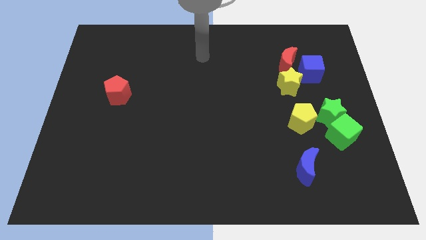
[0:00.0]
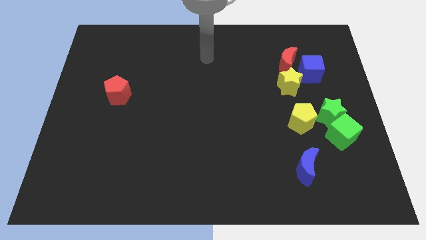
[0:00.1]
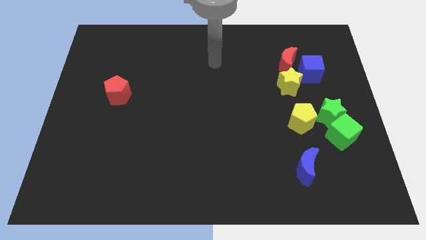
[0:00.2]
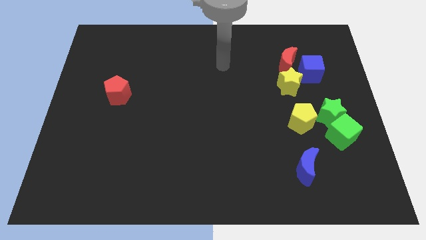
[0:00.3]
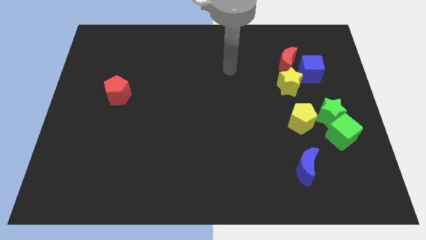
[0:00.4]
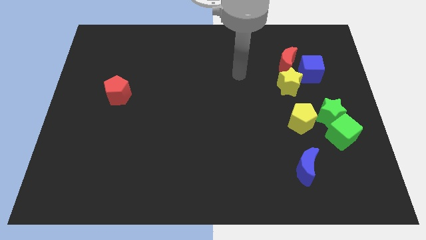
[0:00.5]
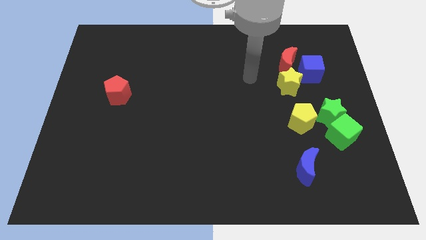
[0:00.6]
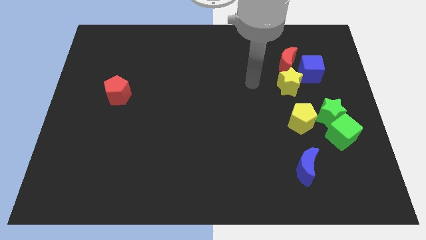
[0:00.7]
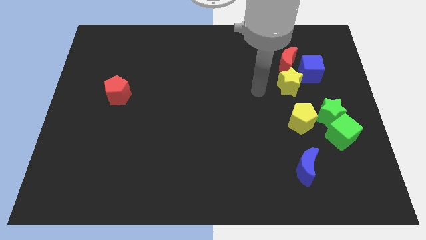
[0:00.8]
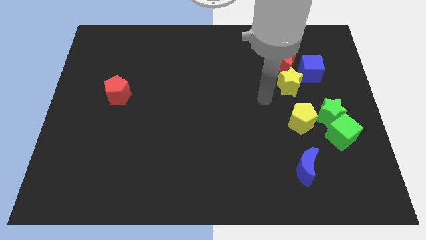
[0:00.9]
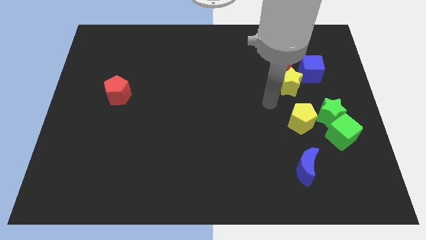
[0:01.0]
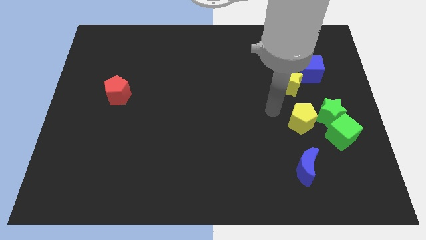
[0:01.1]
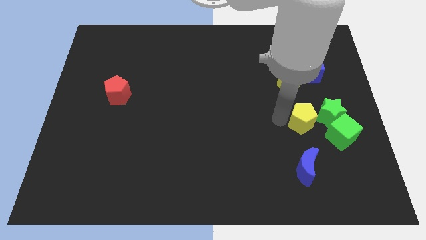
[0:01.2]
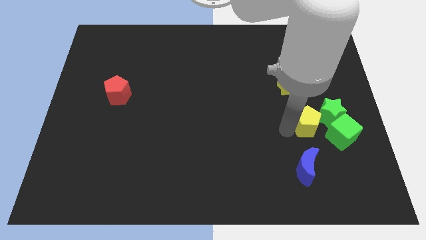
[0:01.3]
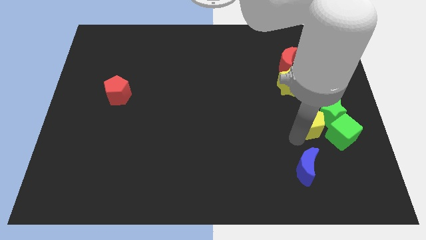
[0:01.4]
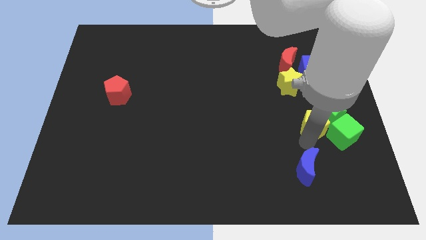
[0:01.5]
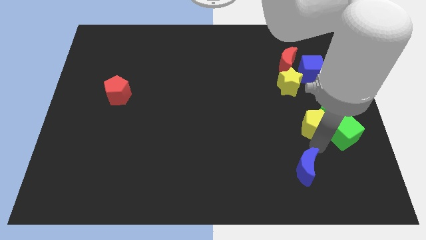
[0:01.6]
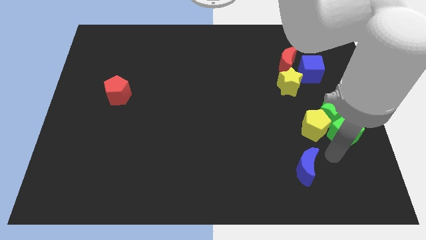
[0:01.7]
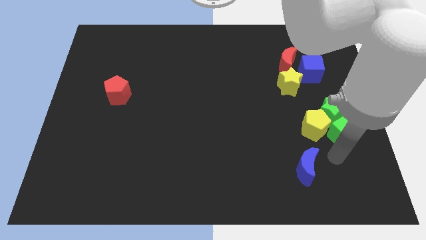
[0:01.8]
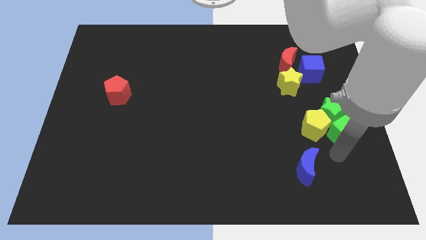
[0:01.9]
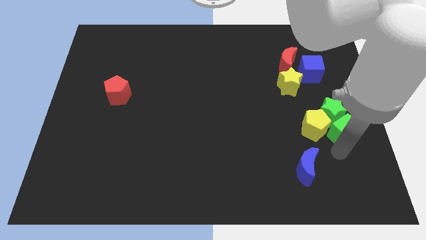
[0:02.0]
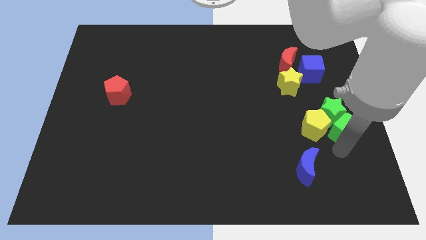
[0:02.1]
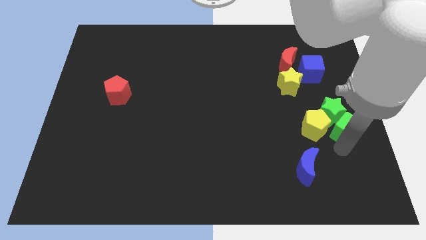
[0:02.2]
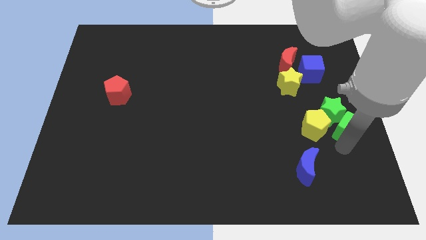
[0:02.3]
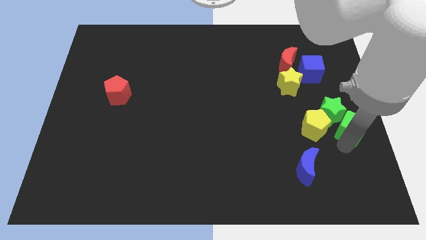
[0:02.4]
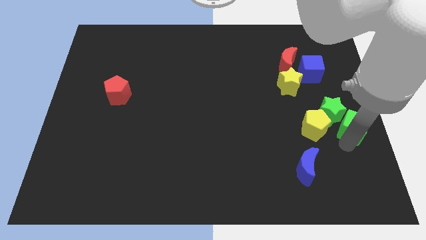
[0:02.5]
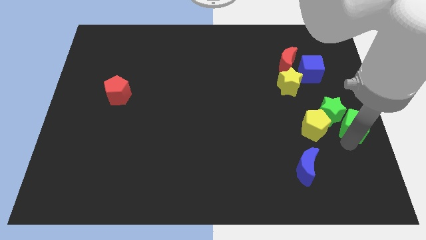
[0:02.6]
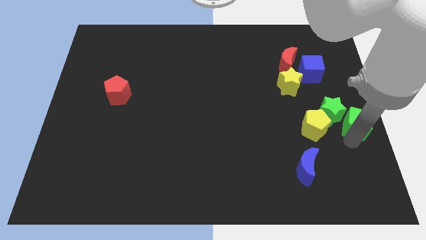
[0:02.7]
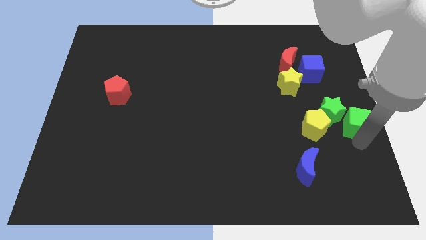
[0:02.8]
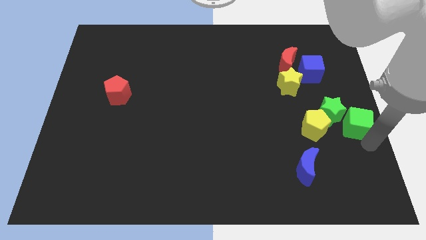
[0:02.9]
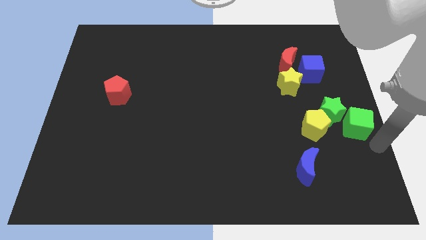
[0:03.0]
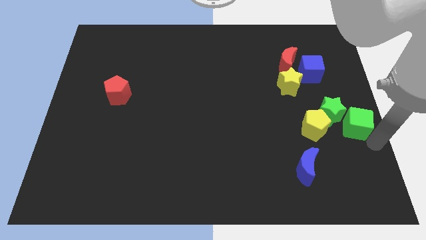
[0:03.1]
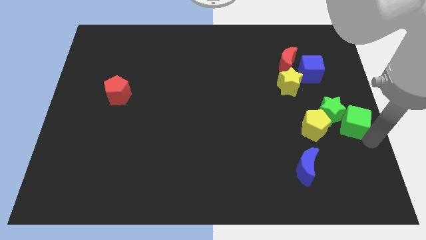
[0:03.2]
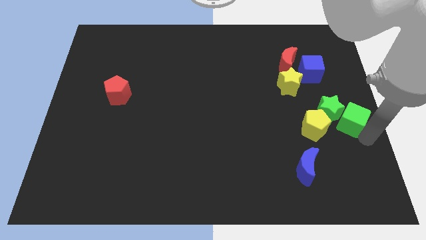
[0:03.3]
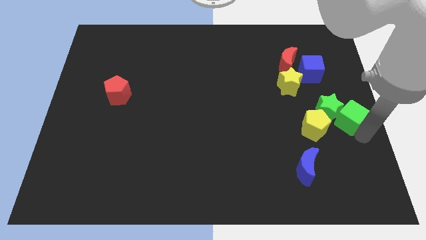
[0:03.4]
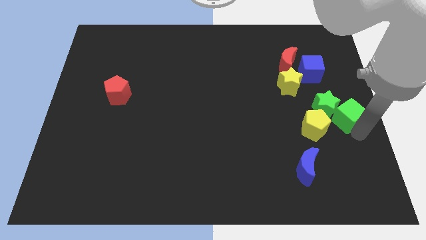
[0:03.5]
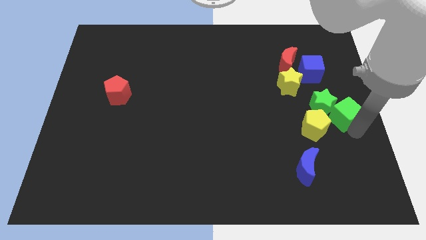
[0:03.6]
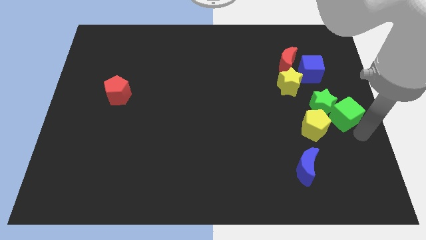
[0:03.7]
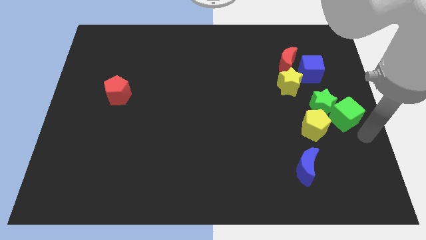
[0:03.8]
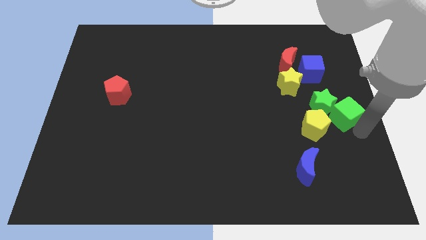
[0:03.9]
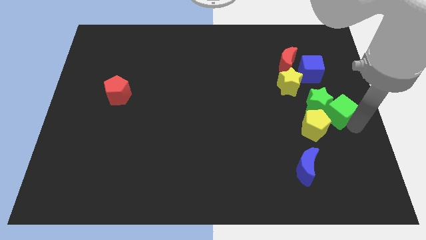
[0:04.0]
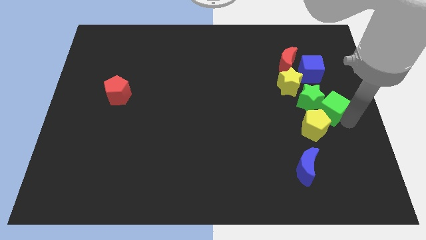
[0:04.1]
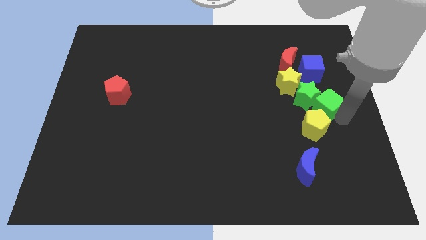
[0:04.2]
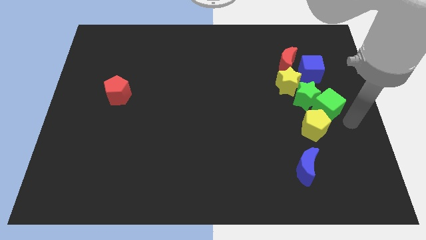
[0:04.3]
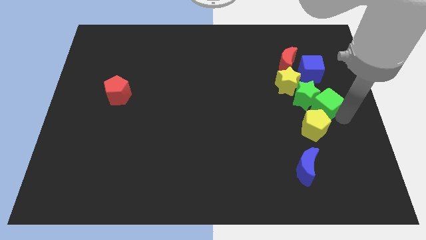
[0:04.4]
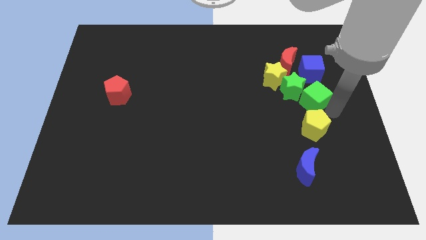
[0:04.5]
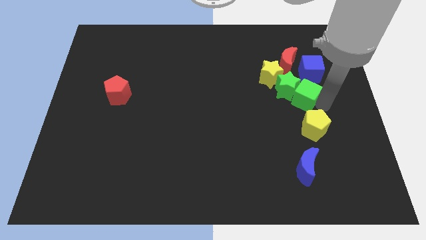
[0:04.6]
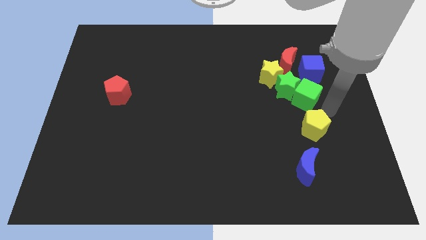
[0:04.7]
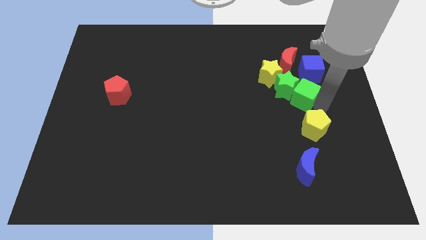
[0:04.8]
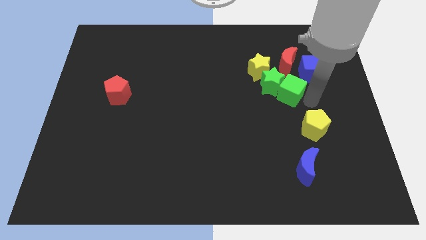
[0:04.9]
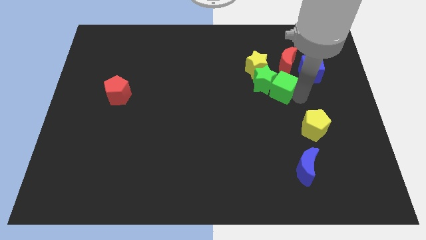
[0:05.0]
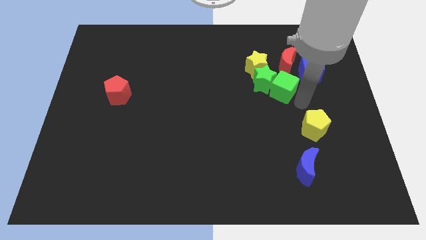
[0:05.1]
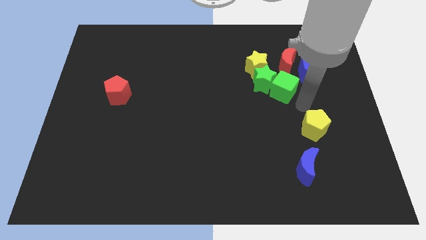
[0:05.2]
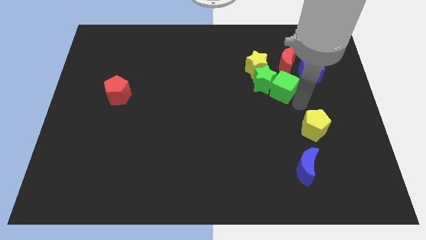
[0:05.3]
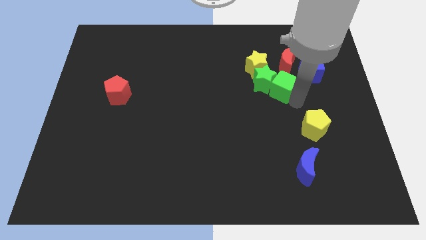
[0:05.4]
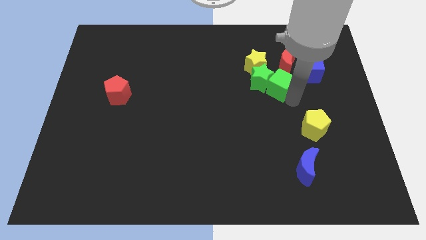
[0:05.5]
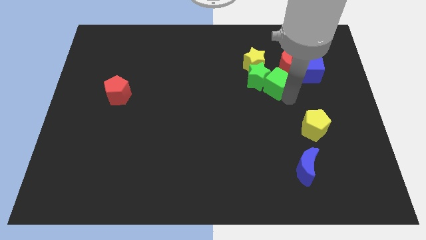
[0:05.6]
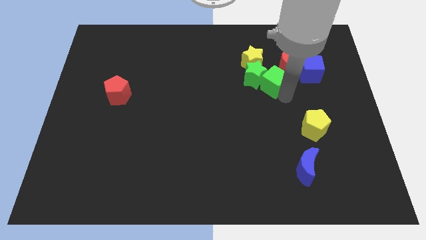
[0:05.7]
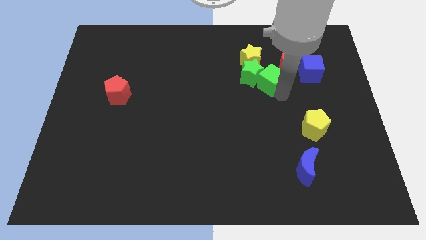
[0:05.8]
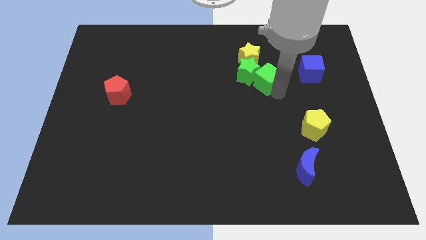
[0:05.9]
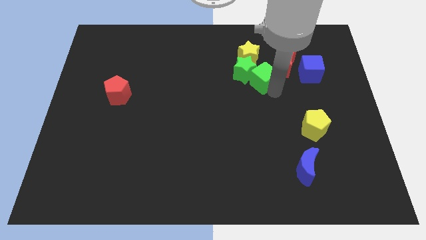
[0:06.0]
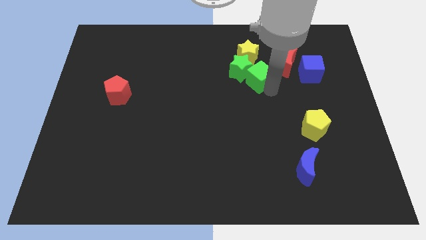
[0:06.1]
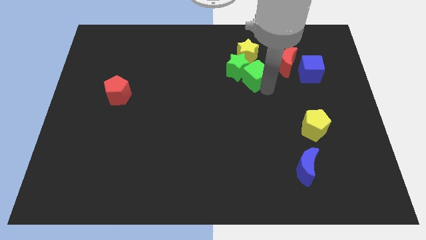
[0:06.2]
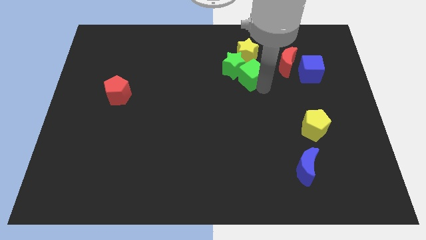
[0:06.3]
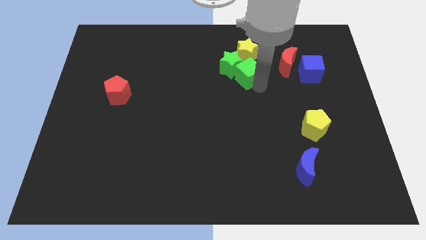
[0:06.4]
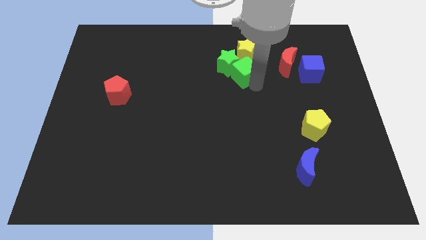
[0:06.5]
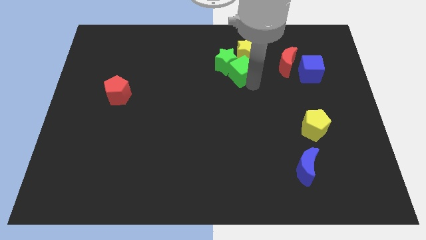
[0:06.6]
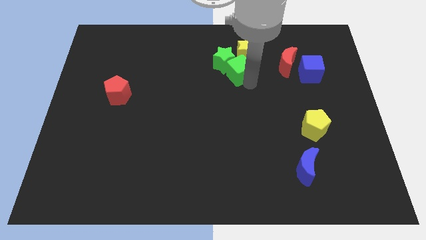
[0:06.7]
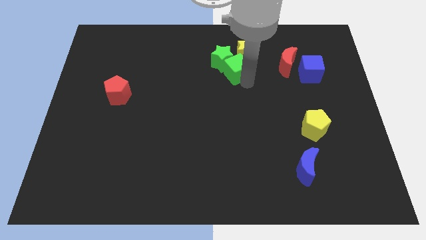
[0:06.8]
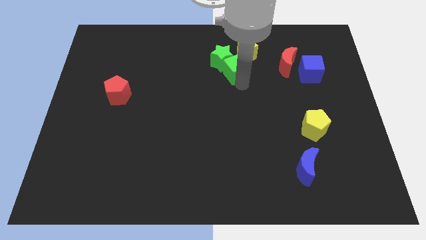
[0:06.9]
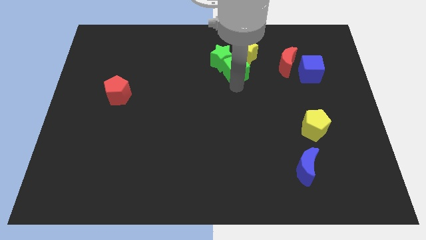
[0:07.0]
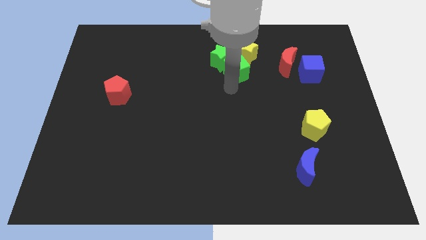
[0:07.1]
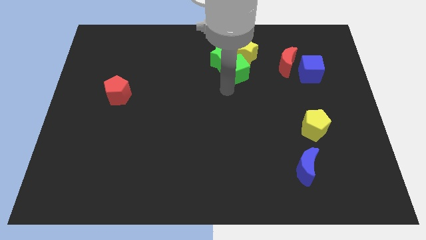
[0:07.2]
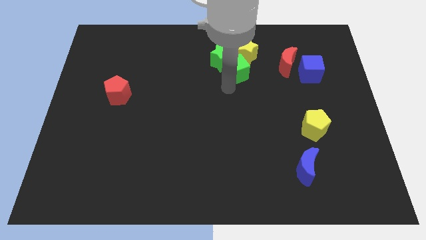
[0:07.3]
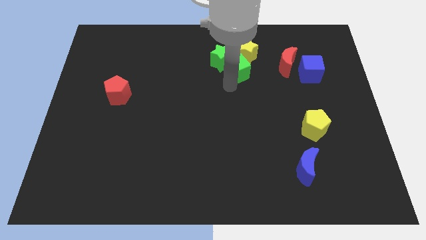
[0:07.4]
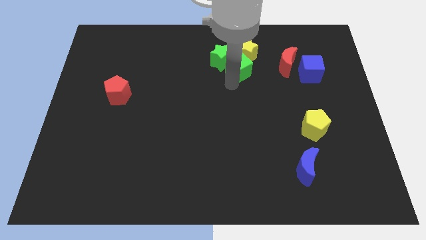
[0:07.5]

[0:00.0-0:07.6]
slide the green cube to the yellow star
